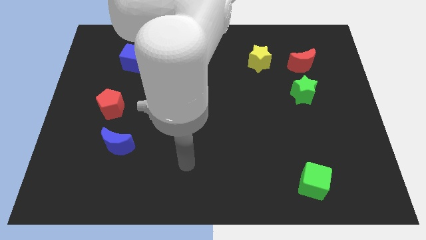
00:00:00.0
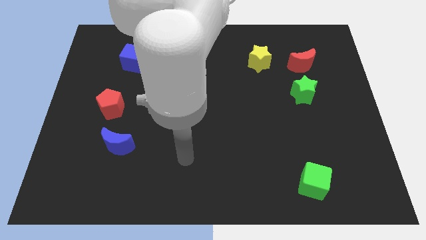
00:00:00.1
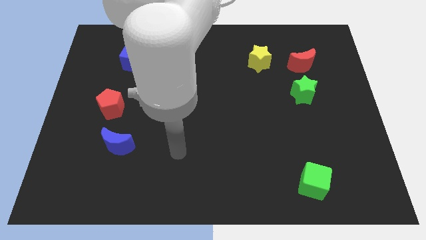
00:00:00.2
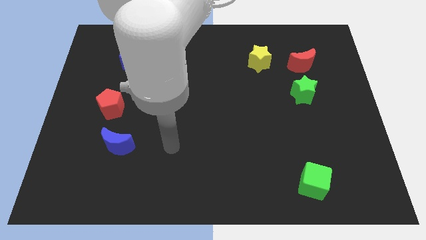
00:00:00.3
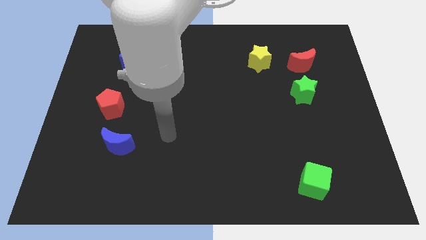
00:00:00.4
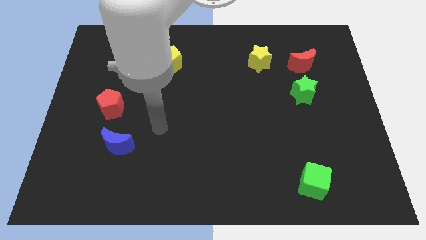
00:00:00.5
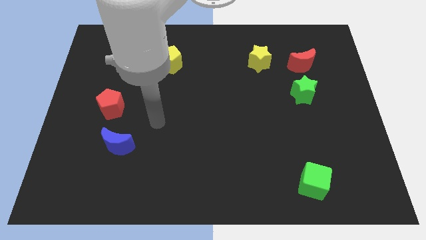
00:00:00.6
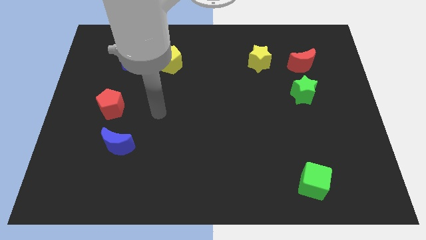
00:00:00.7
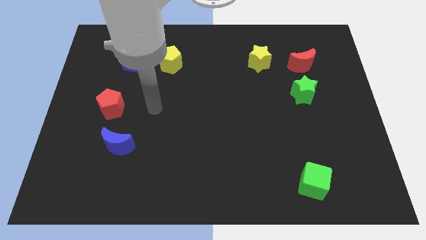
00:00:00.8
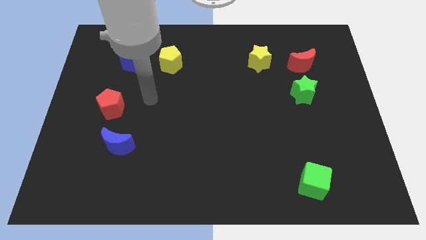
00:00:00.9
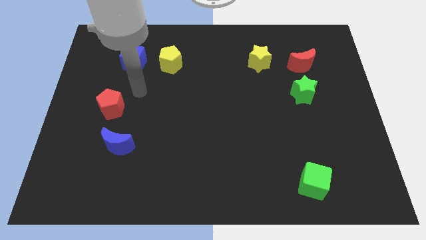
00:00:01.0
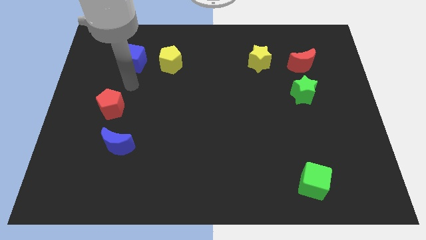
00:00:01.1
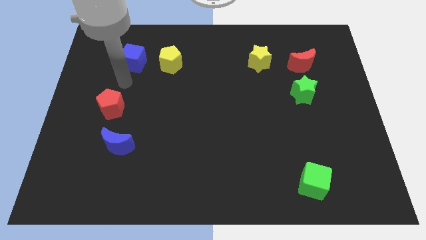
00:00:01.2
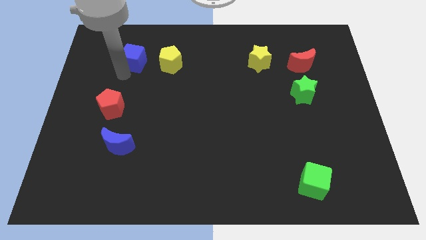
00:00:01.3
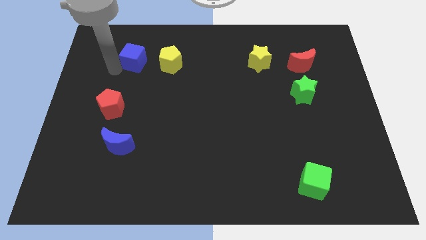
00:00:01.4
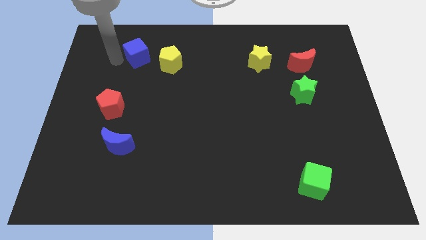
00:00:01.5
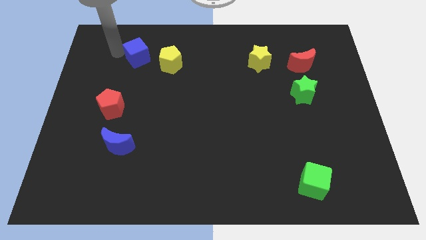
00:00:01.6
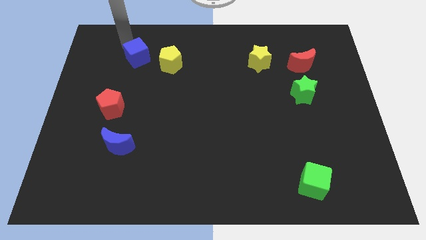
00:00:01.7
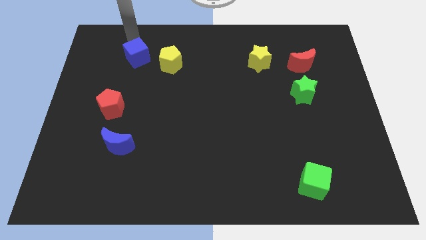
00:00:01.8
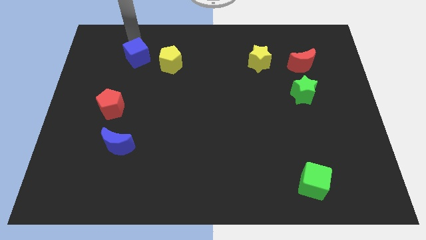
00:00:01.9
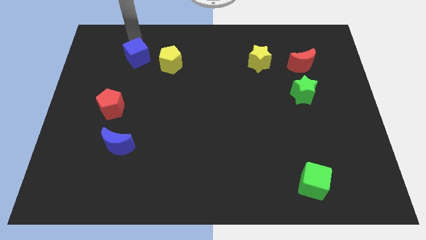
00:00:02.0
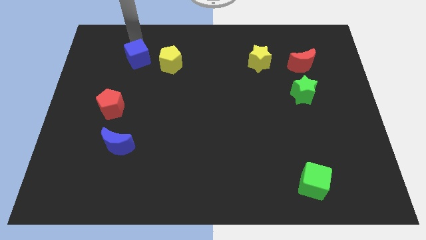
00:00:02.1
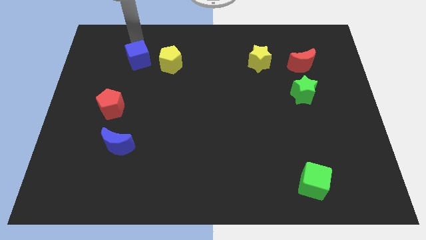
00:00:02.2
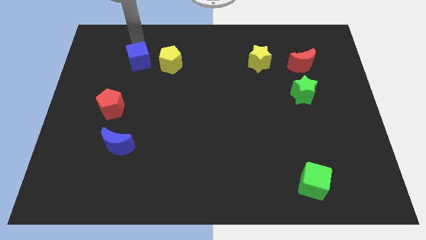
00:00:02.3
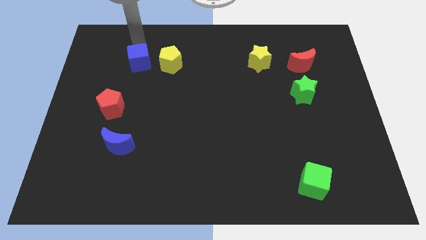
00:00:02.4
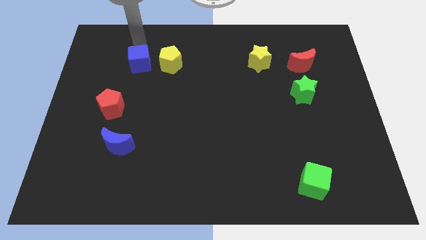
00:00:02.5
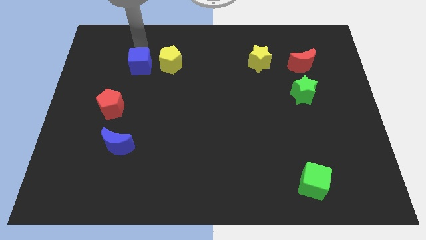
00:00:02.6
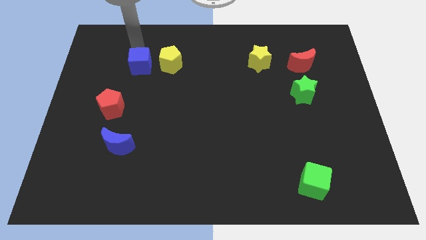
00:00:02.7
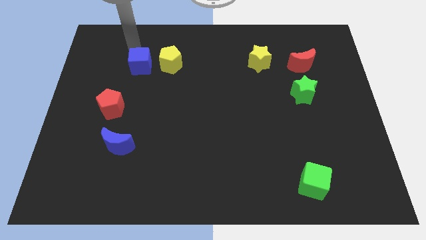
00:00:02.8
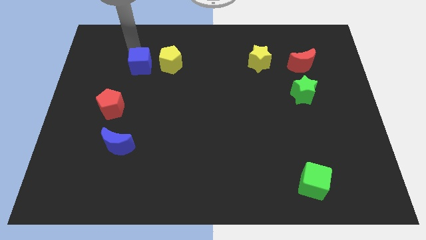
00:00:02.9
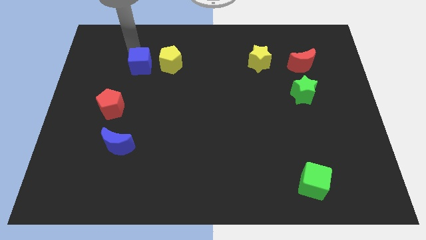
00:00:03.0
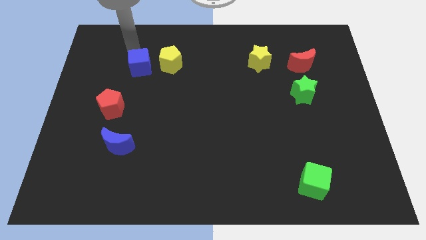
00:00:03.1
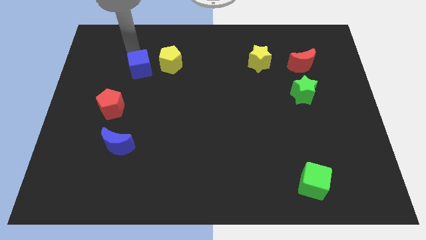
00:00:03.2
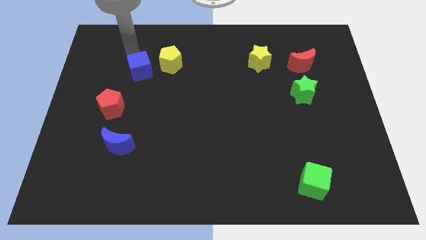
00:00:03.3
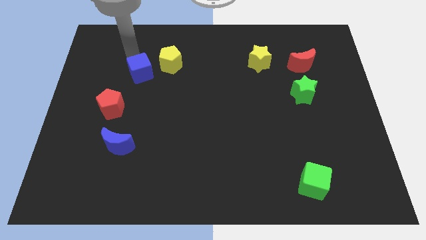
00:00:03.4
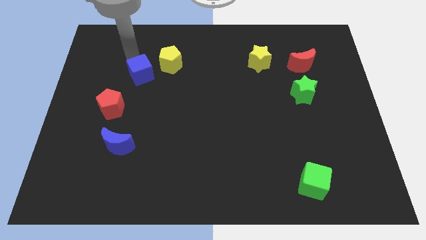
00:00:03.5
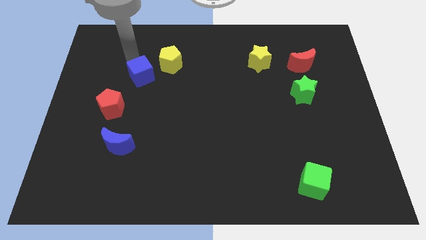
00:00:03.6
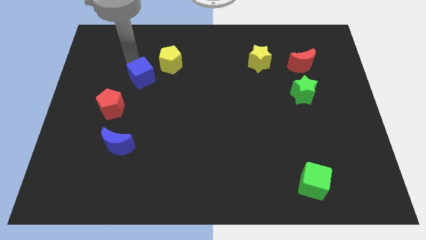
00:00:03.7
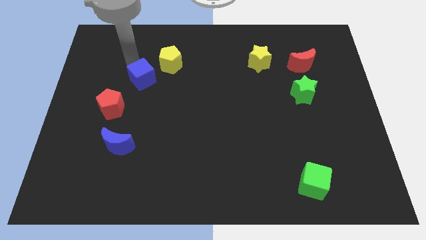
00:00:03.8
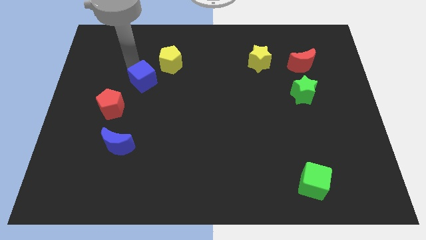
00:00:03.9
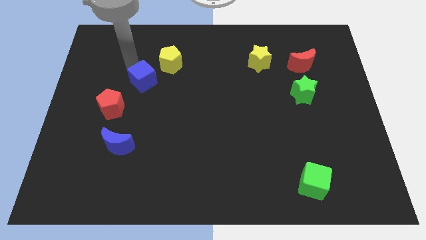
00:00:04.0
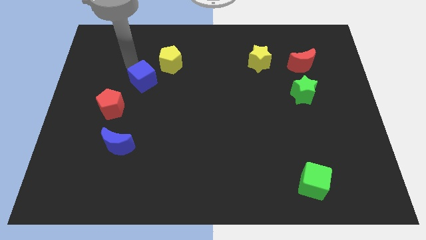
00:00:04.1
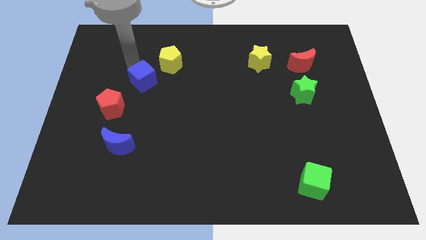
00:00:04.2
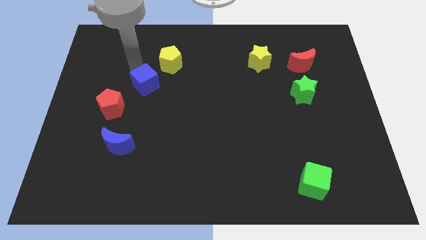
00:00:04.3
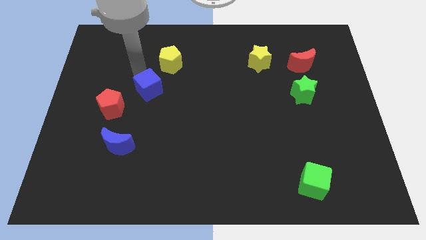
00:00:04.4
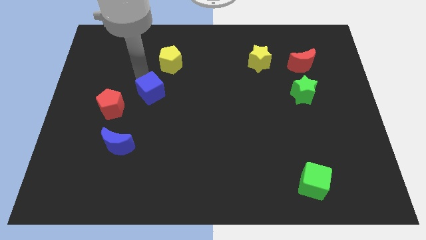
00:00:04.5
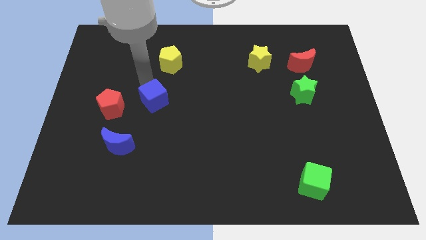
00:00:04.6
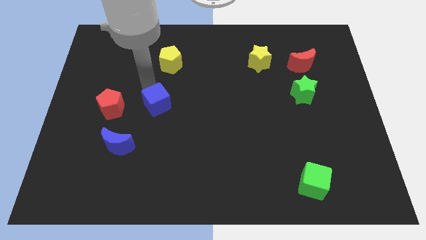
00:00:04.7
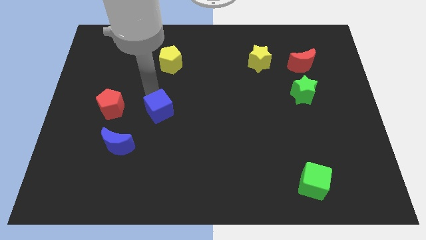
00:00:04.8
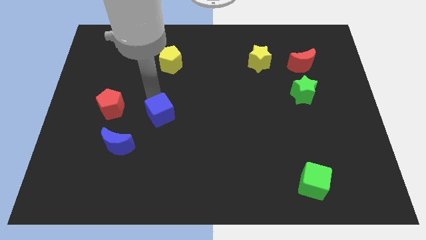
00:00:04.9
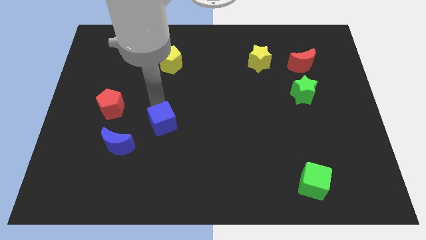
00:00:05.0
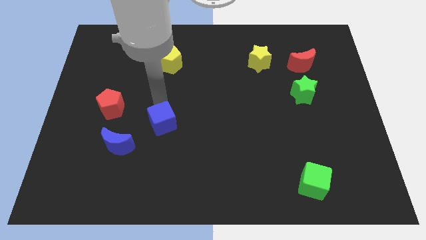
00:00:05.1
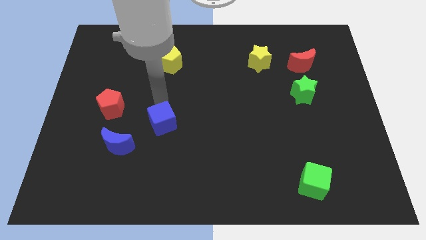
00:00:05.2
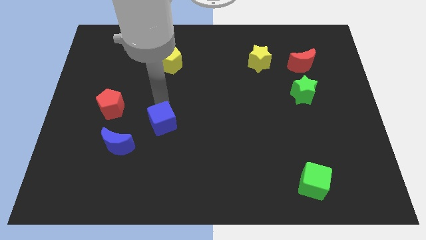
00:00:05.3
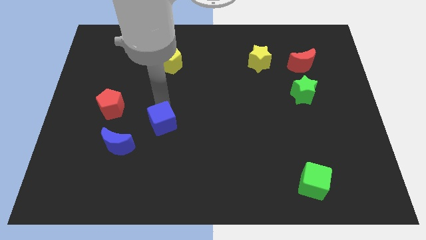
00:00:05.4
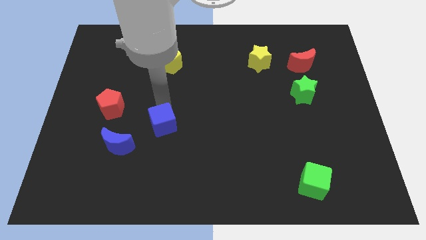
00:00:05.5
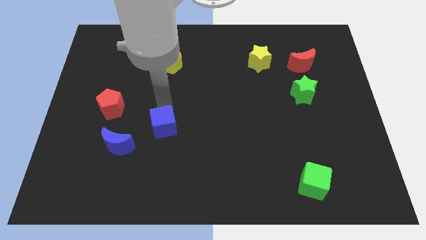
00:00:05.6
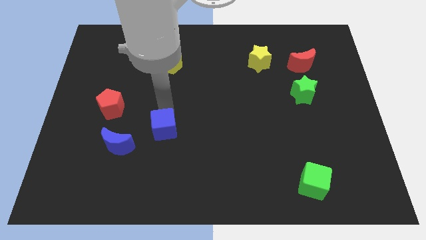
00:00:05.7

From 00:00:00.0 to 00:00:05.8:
push the blue cube to the right of the blue moon

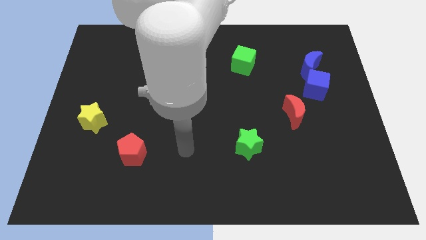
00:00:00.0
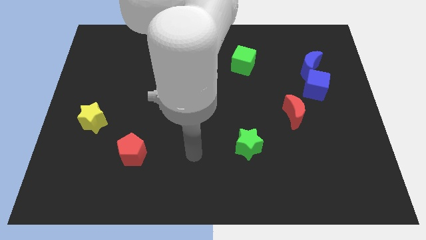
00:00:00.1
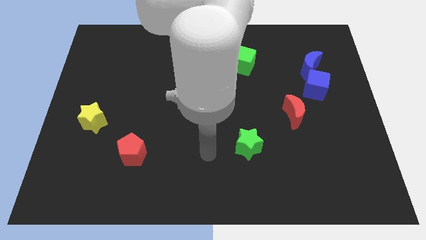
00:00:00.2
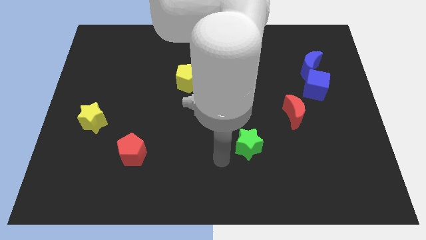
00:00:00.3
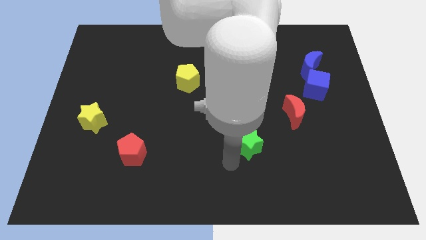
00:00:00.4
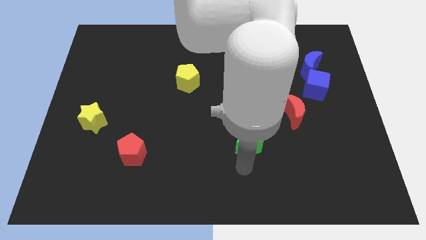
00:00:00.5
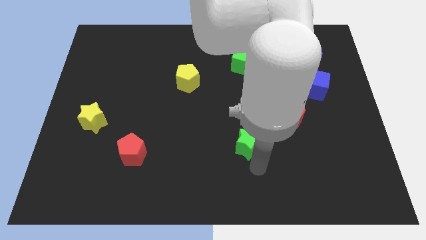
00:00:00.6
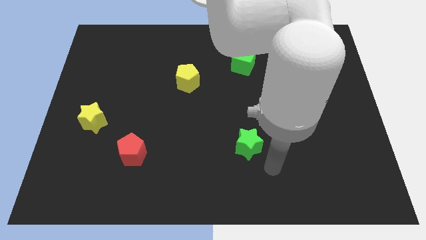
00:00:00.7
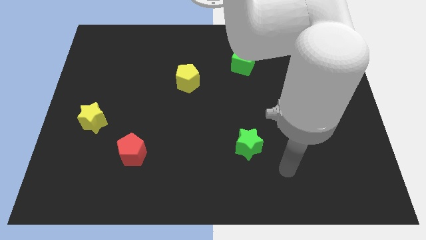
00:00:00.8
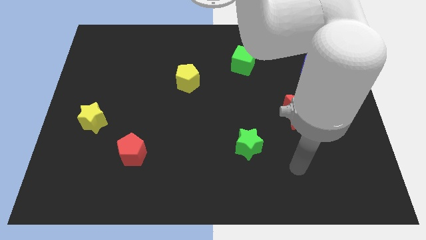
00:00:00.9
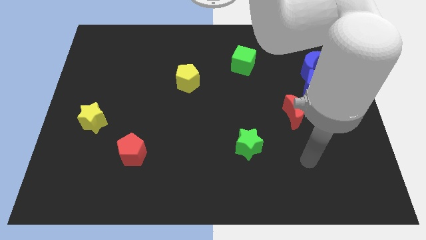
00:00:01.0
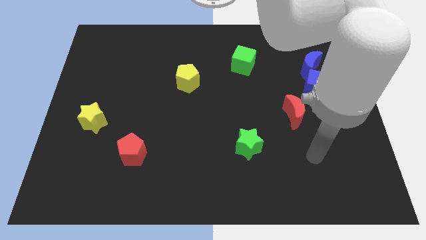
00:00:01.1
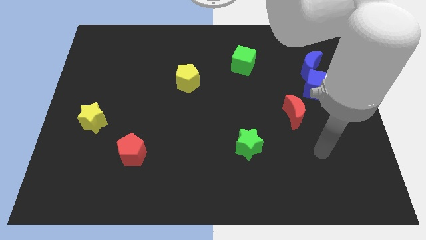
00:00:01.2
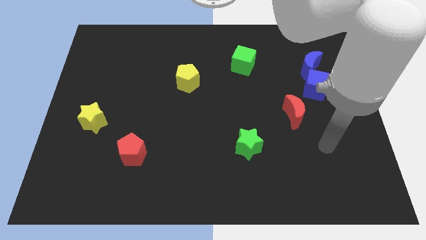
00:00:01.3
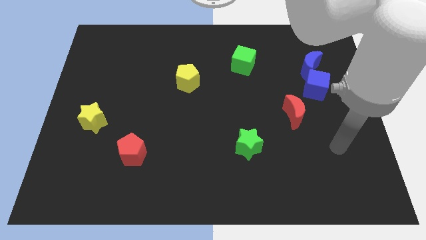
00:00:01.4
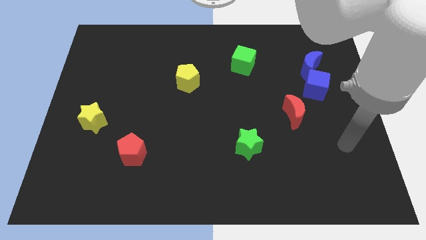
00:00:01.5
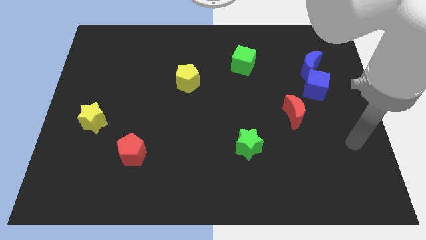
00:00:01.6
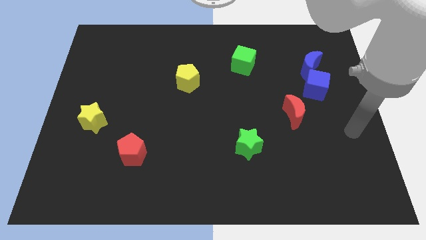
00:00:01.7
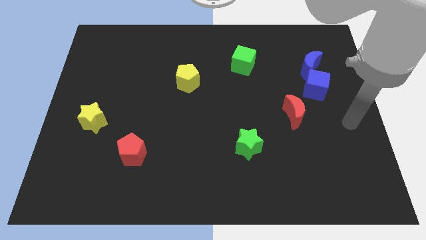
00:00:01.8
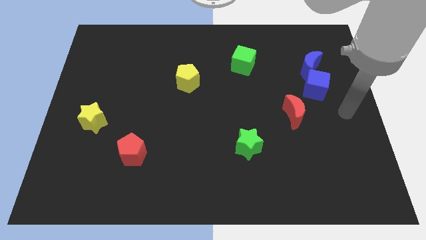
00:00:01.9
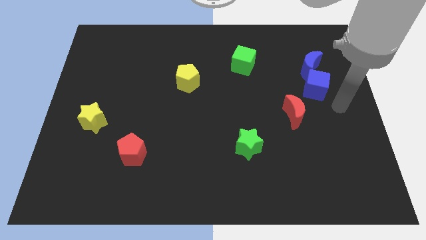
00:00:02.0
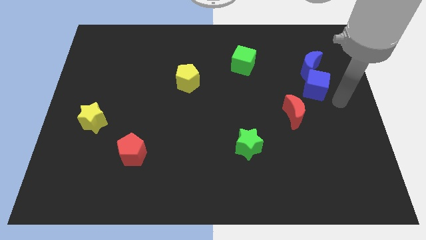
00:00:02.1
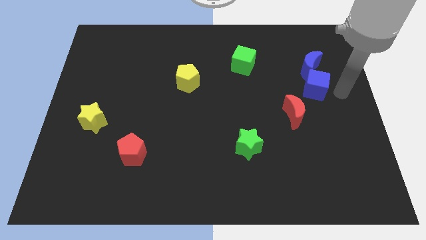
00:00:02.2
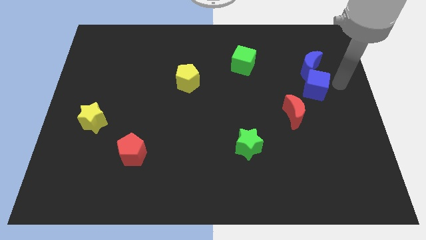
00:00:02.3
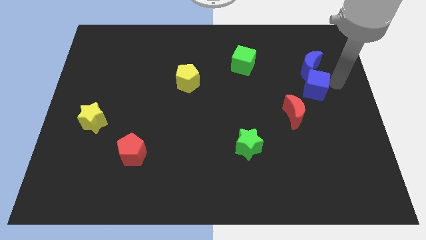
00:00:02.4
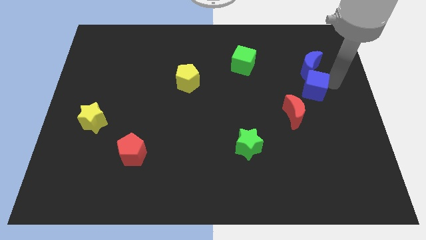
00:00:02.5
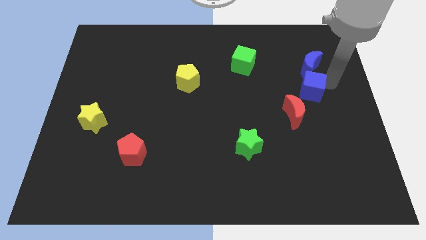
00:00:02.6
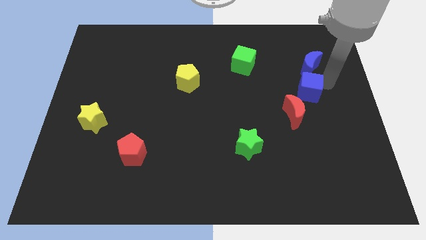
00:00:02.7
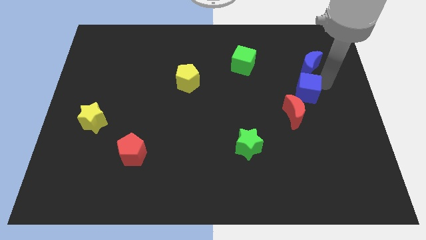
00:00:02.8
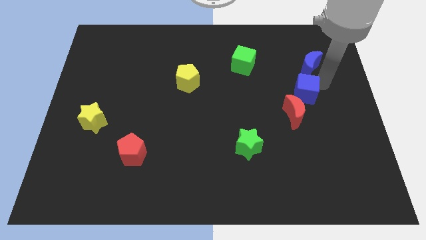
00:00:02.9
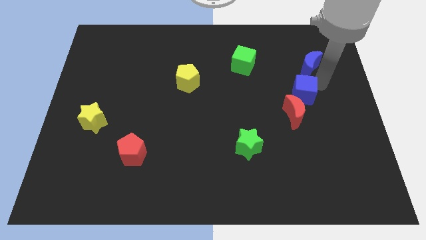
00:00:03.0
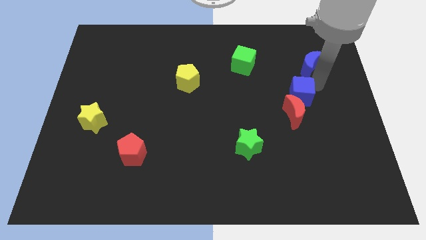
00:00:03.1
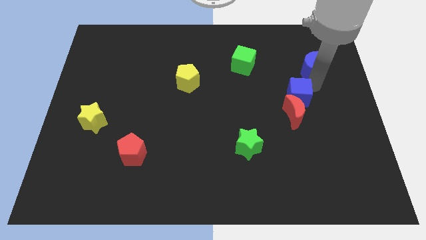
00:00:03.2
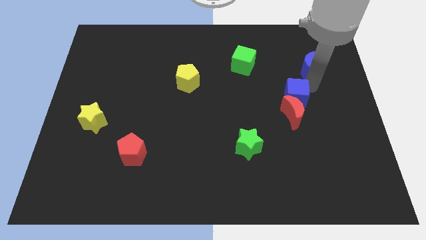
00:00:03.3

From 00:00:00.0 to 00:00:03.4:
move the blue cube diagonally up and to the left of the red moon
